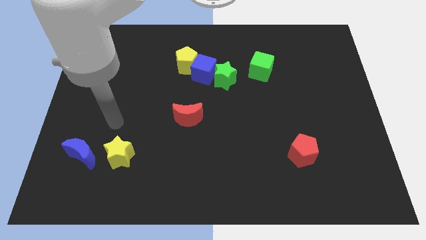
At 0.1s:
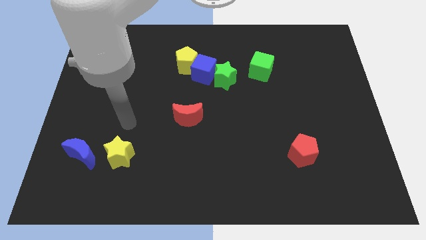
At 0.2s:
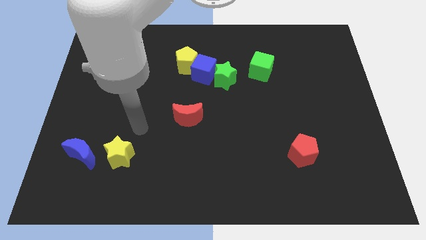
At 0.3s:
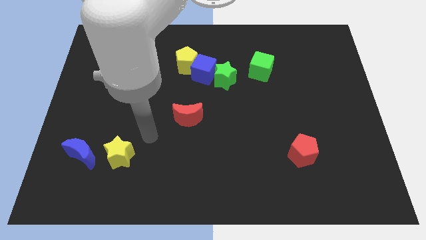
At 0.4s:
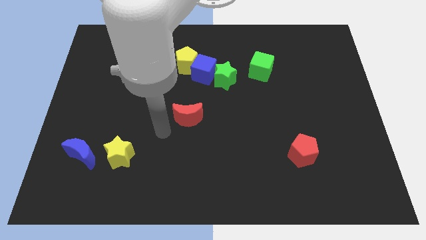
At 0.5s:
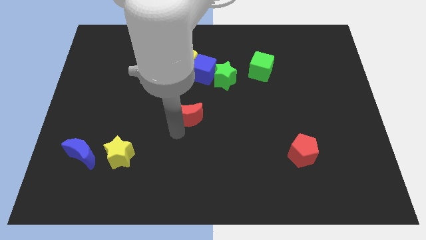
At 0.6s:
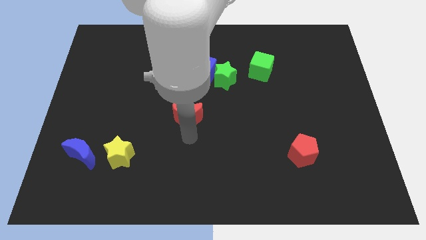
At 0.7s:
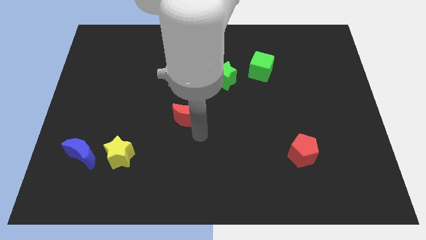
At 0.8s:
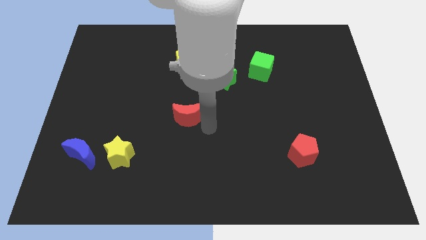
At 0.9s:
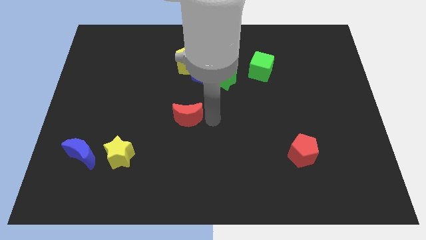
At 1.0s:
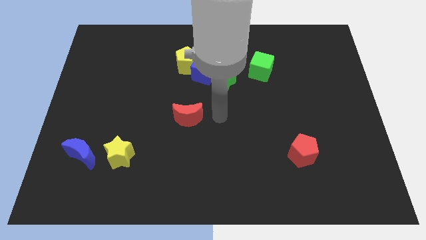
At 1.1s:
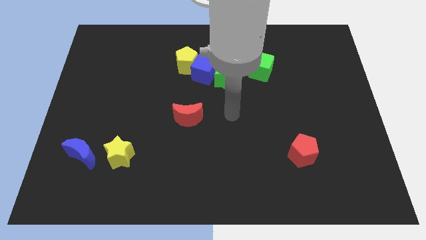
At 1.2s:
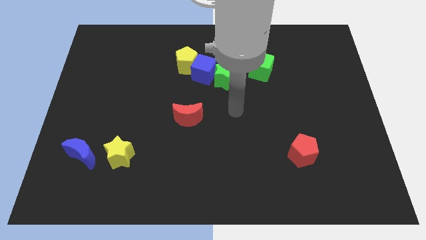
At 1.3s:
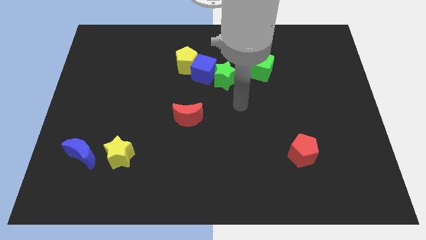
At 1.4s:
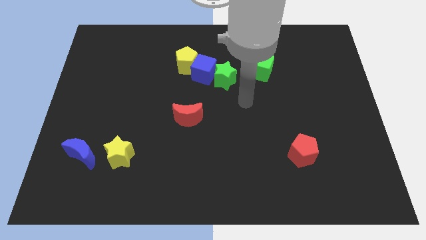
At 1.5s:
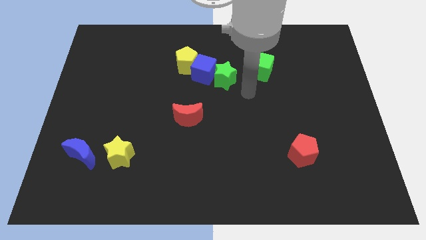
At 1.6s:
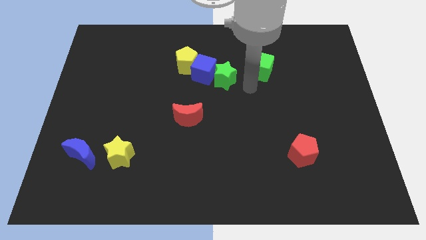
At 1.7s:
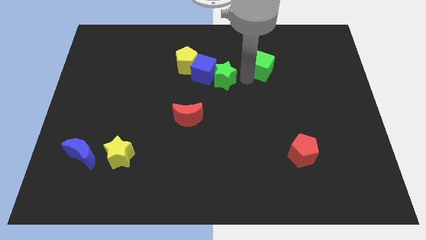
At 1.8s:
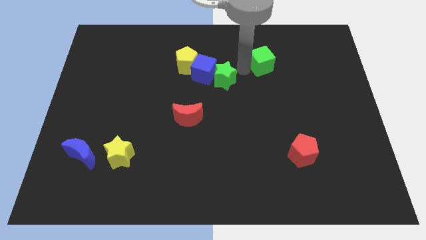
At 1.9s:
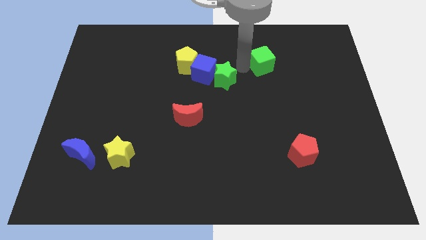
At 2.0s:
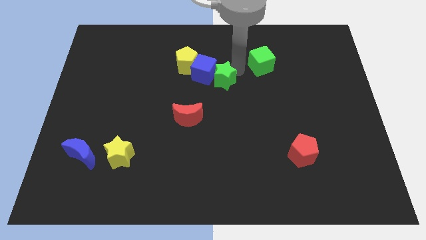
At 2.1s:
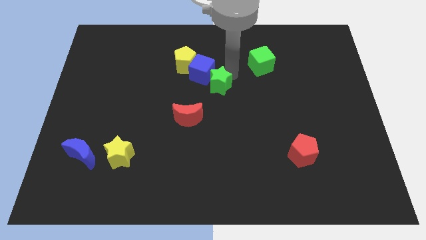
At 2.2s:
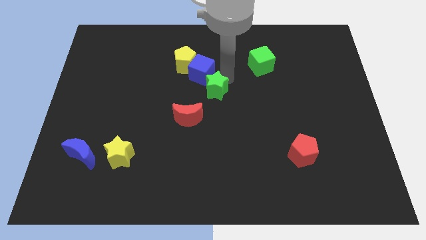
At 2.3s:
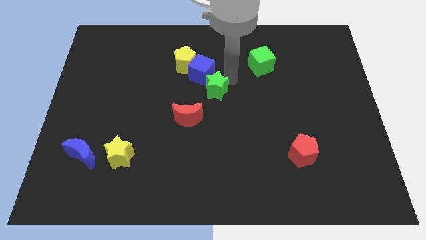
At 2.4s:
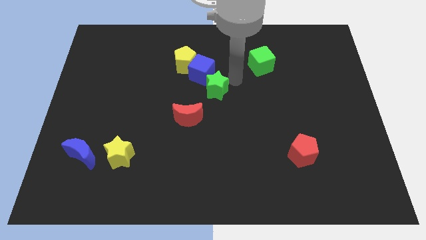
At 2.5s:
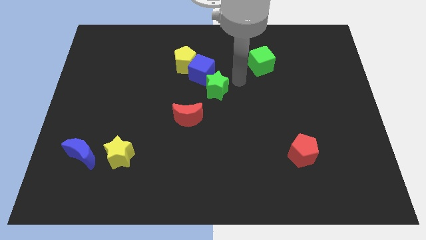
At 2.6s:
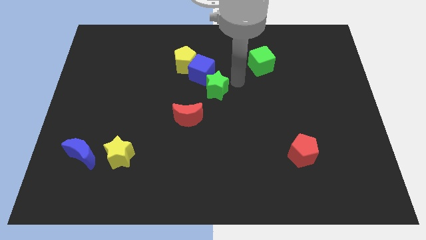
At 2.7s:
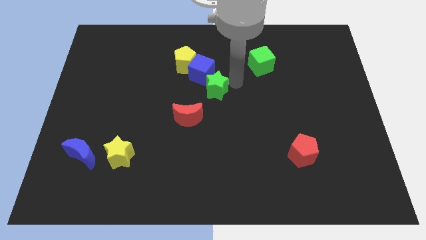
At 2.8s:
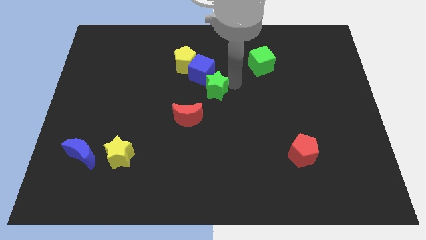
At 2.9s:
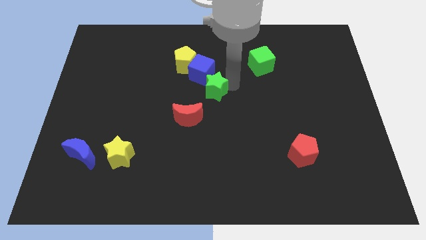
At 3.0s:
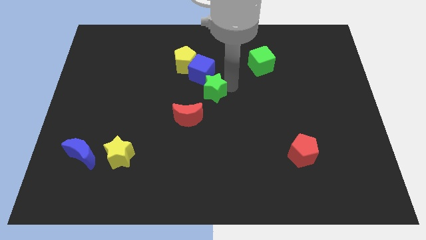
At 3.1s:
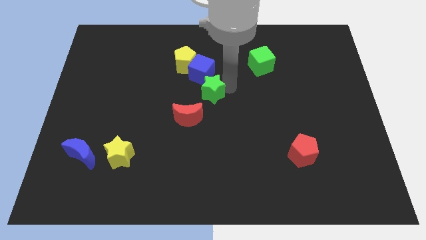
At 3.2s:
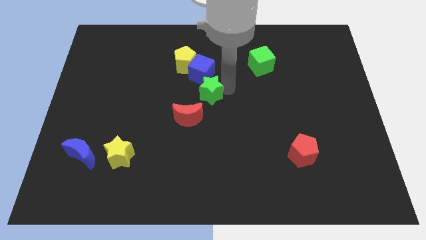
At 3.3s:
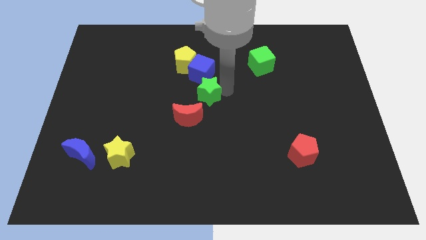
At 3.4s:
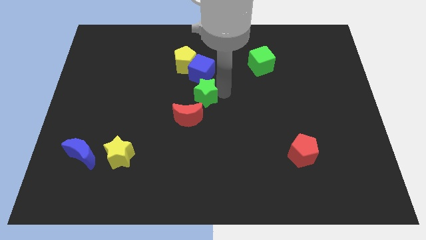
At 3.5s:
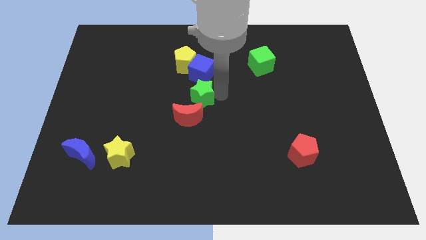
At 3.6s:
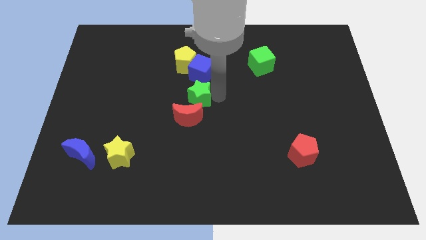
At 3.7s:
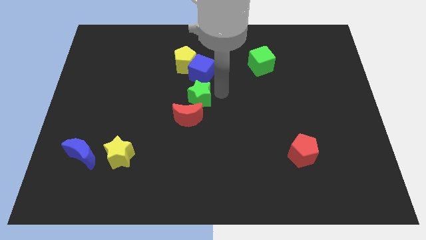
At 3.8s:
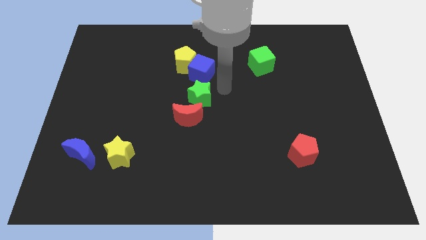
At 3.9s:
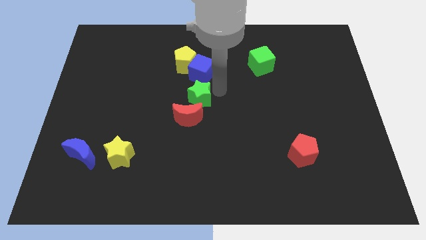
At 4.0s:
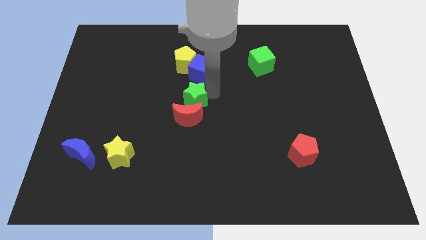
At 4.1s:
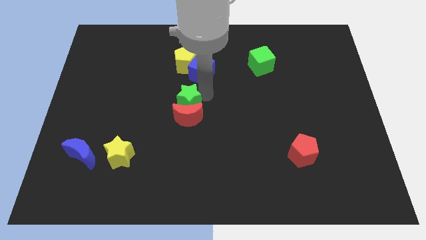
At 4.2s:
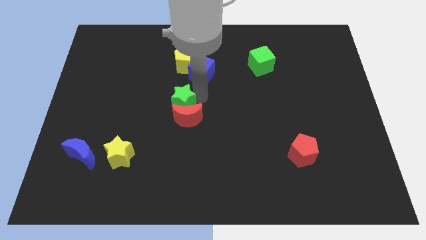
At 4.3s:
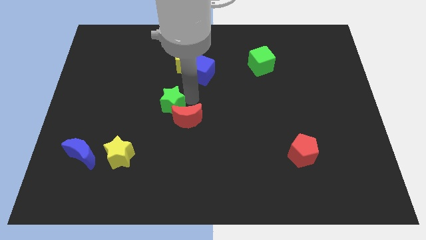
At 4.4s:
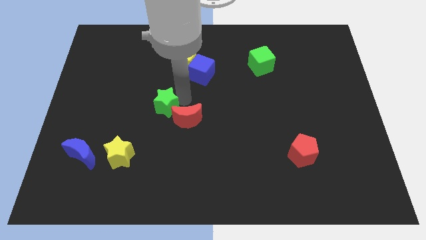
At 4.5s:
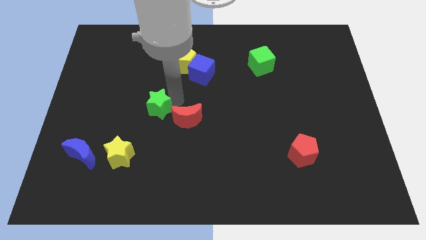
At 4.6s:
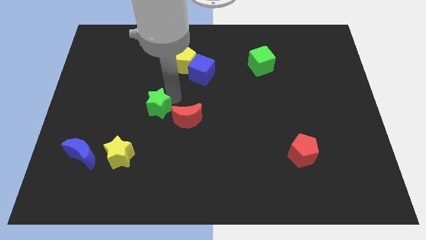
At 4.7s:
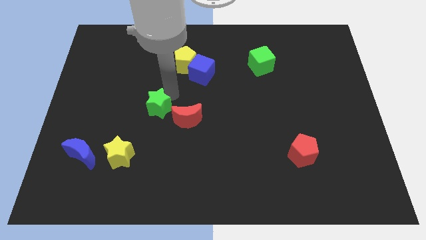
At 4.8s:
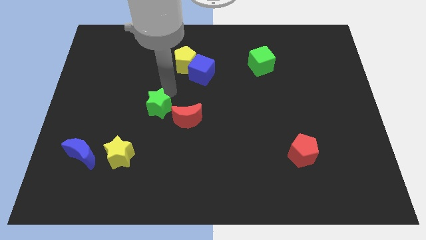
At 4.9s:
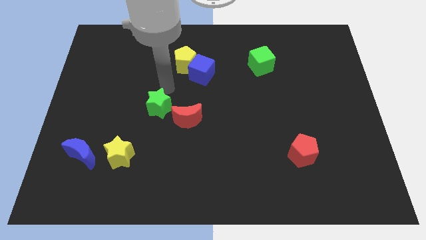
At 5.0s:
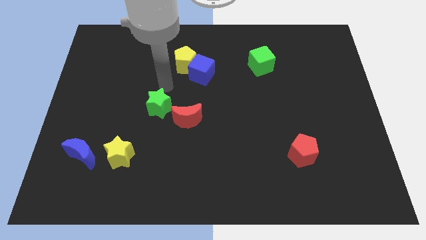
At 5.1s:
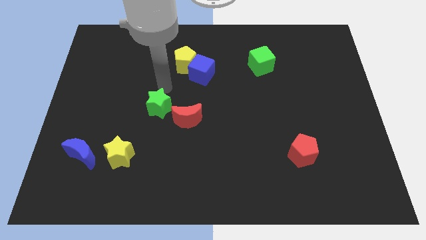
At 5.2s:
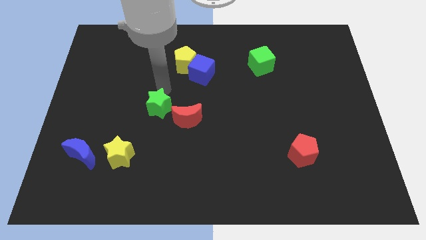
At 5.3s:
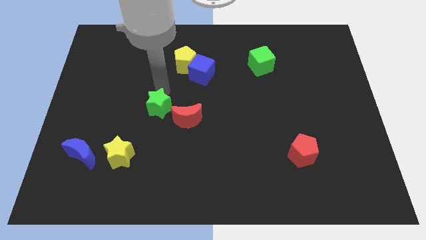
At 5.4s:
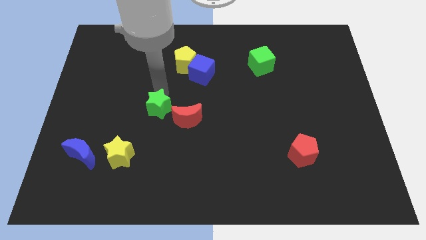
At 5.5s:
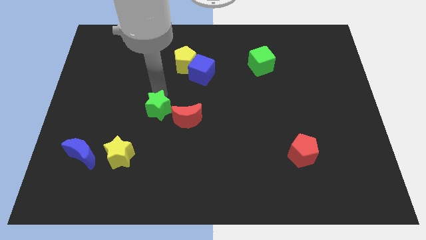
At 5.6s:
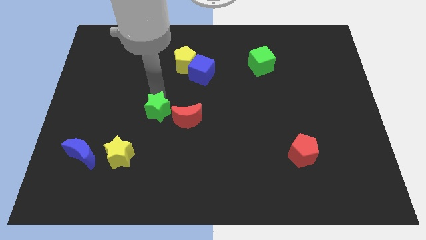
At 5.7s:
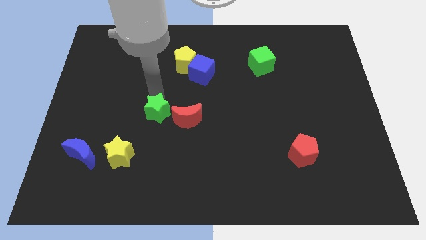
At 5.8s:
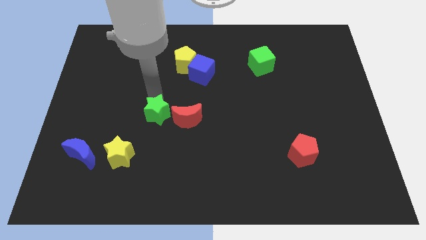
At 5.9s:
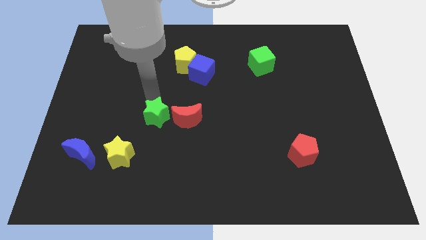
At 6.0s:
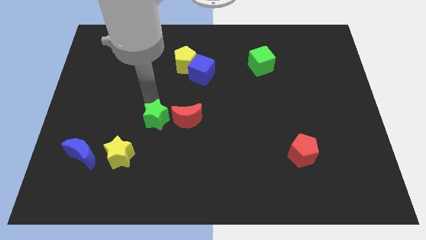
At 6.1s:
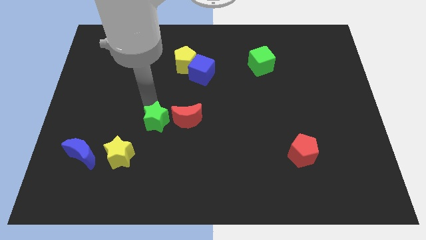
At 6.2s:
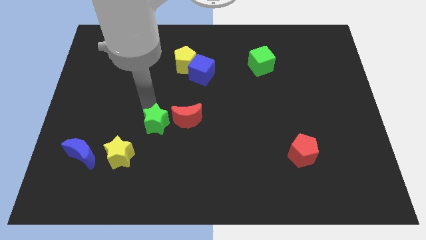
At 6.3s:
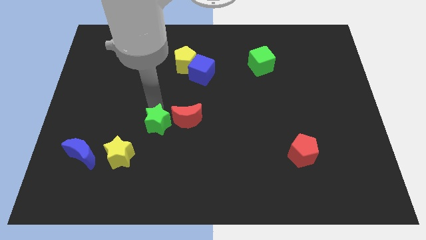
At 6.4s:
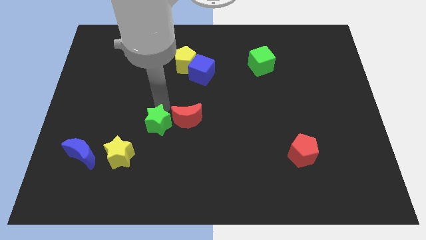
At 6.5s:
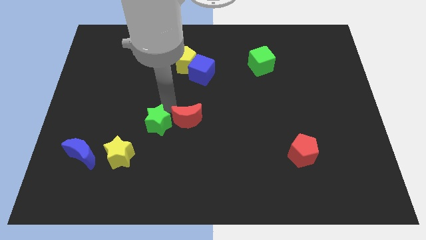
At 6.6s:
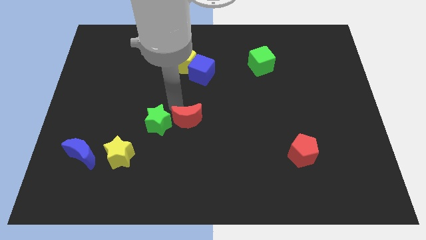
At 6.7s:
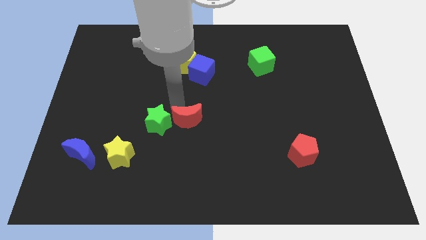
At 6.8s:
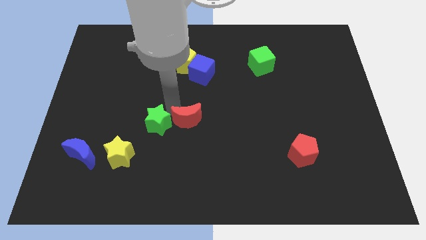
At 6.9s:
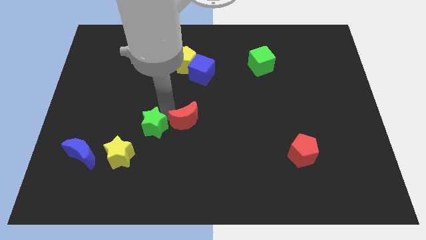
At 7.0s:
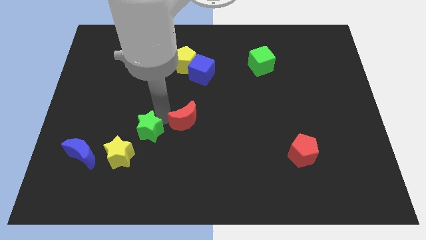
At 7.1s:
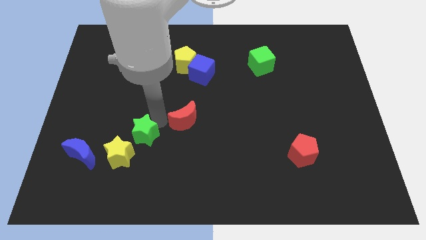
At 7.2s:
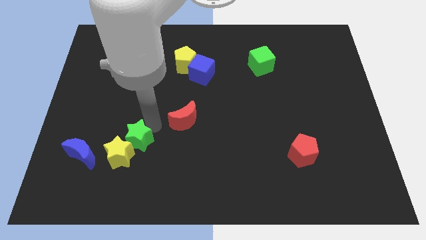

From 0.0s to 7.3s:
move the green star to the yellow star
